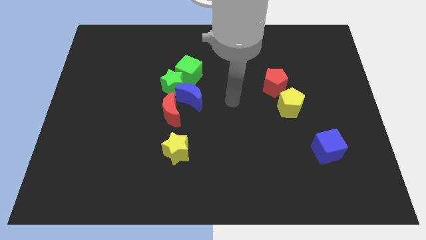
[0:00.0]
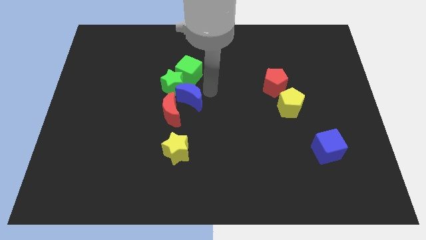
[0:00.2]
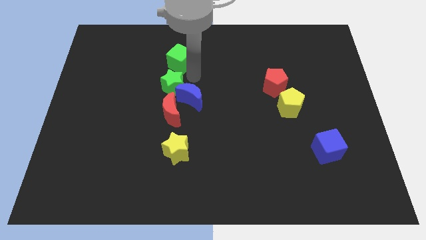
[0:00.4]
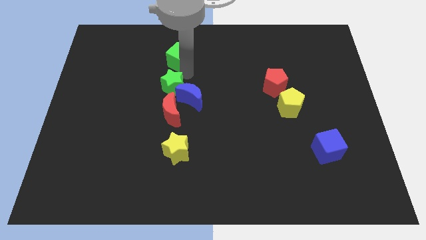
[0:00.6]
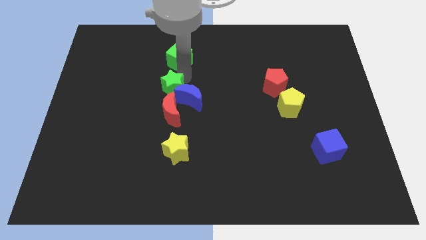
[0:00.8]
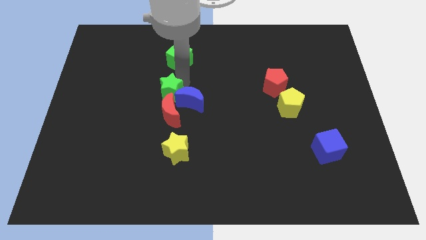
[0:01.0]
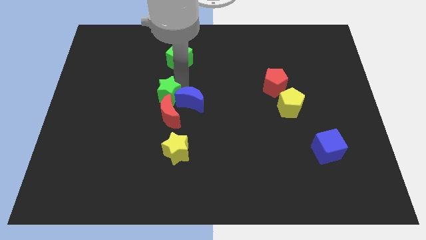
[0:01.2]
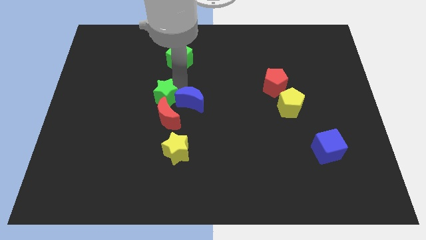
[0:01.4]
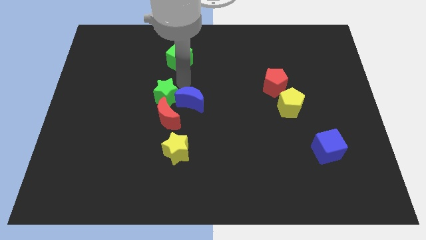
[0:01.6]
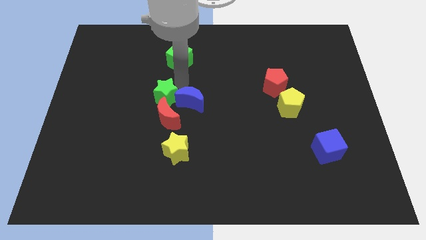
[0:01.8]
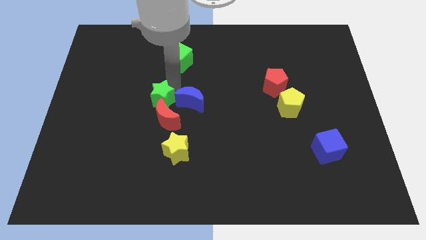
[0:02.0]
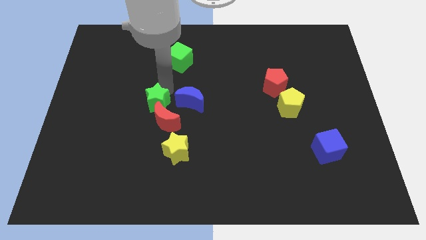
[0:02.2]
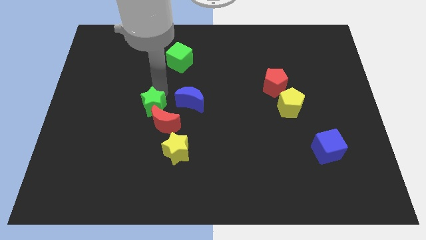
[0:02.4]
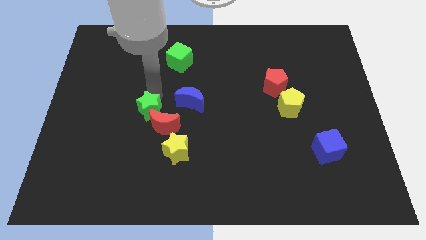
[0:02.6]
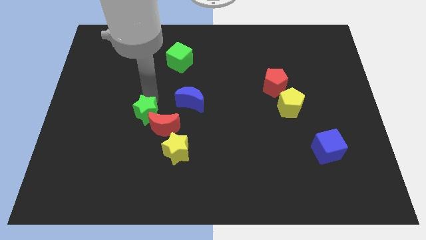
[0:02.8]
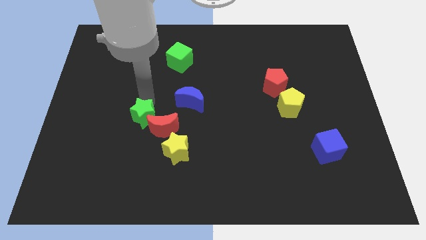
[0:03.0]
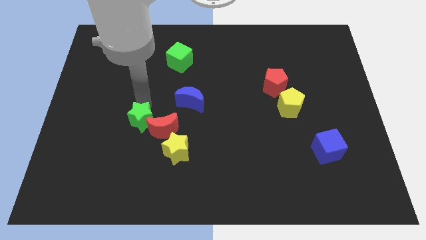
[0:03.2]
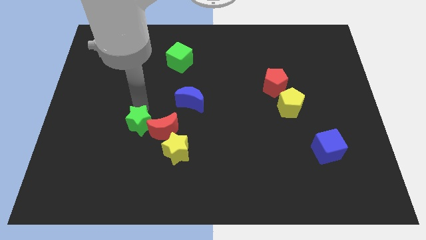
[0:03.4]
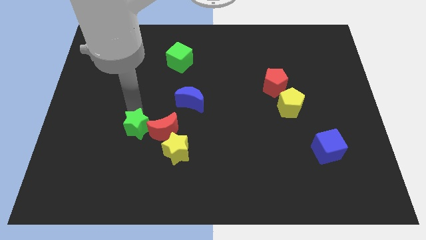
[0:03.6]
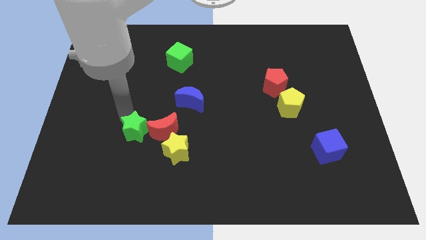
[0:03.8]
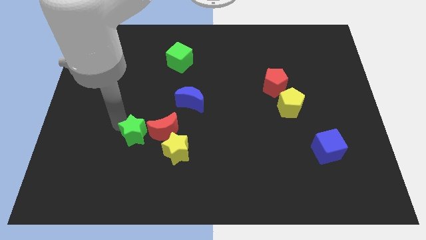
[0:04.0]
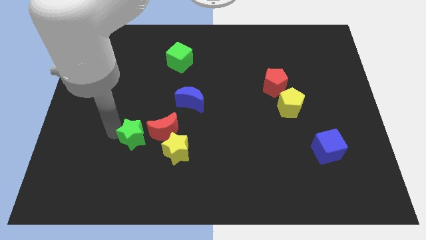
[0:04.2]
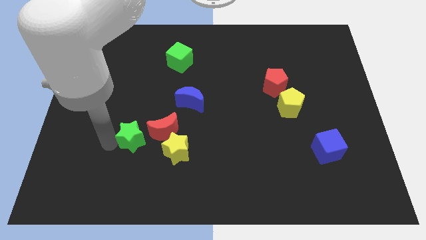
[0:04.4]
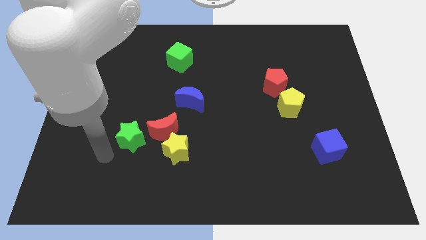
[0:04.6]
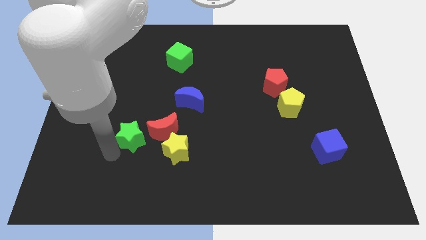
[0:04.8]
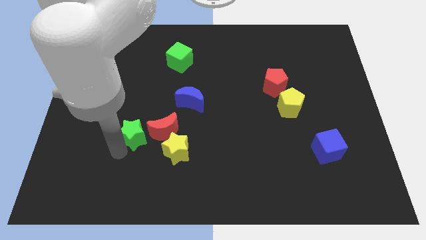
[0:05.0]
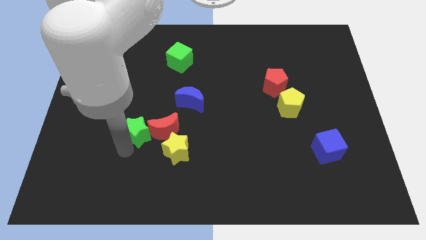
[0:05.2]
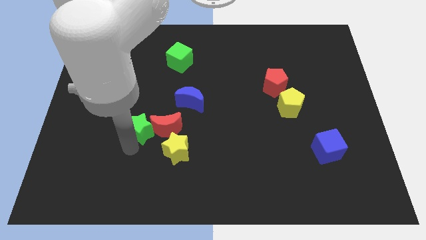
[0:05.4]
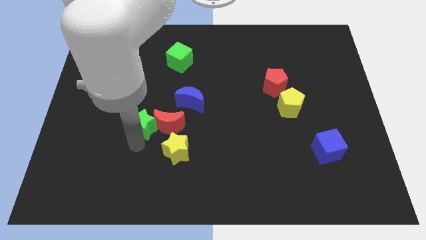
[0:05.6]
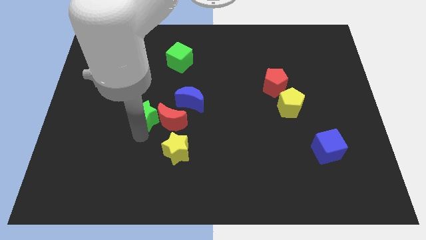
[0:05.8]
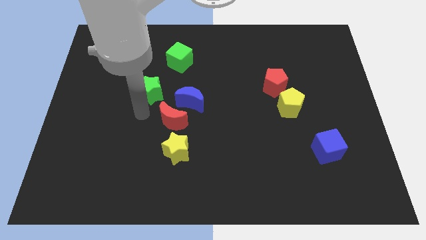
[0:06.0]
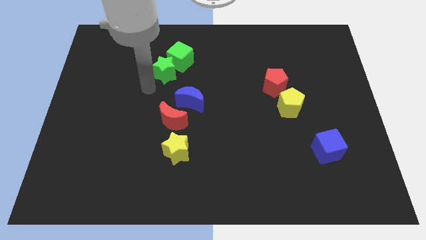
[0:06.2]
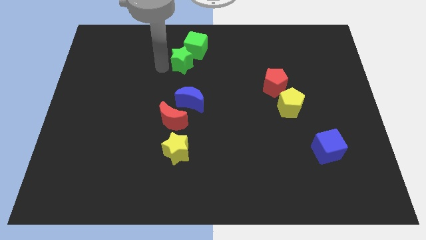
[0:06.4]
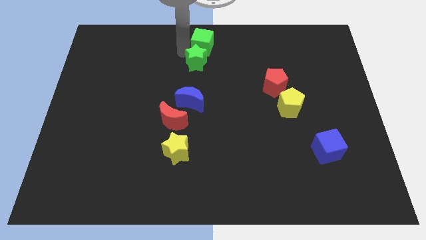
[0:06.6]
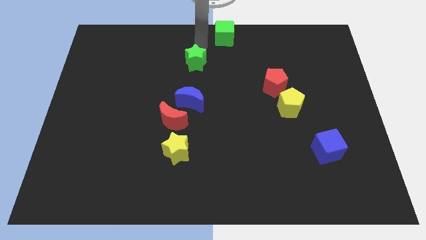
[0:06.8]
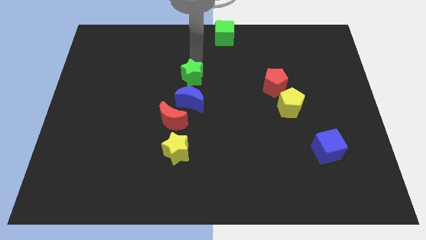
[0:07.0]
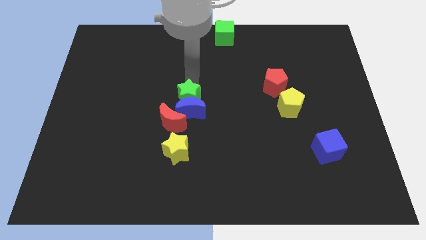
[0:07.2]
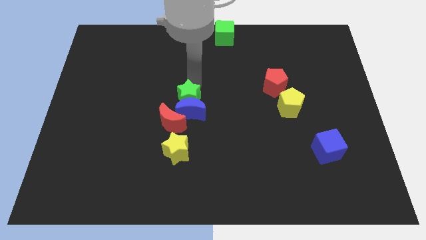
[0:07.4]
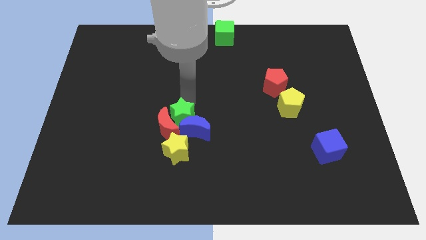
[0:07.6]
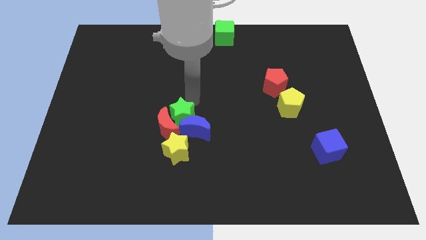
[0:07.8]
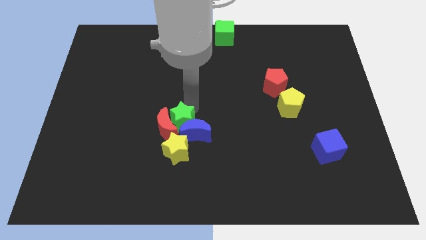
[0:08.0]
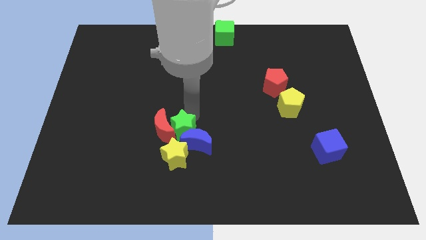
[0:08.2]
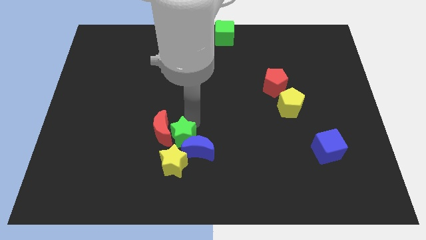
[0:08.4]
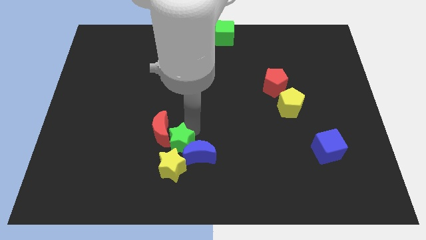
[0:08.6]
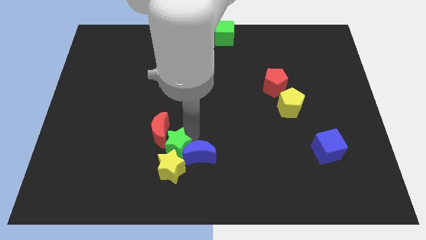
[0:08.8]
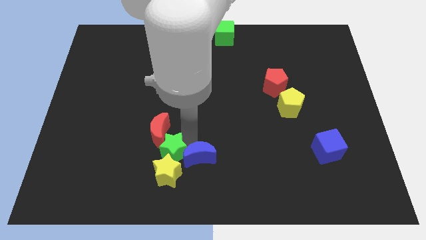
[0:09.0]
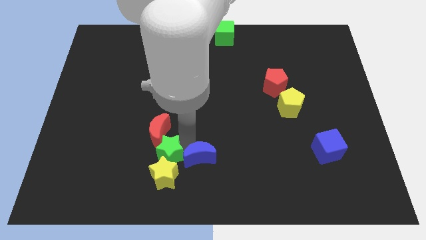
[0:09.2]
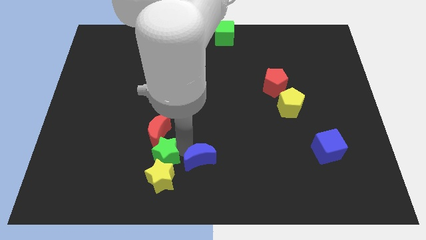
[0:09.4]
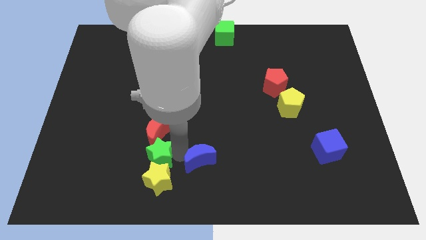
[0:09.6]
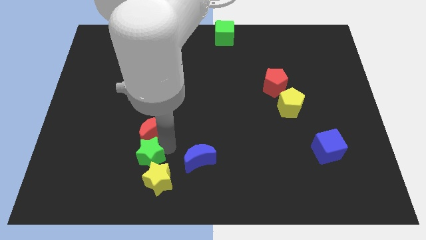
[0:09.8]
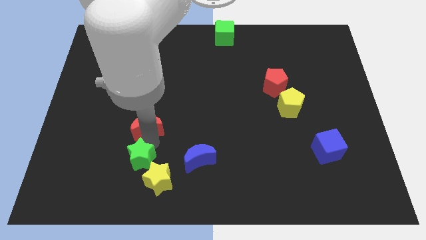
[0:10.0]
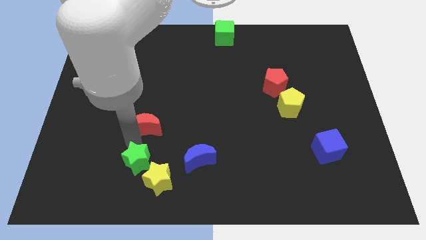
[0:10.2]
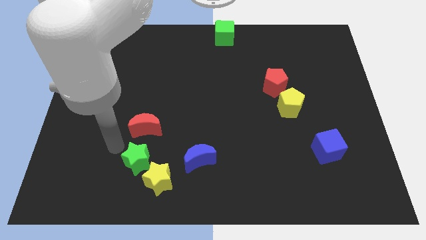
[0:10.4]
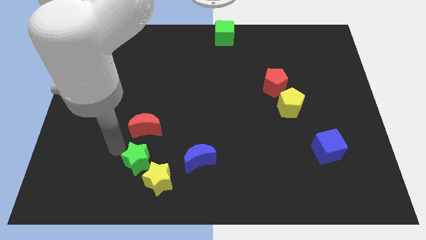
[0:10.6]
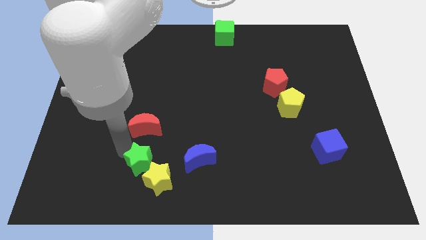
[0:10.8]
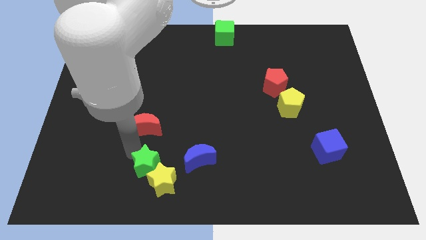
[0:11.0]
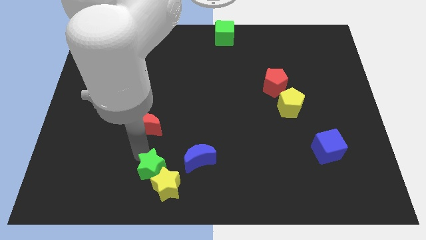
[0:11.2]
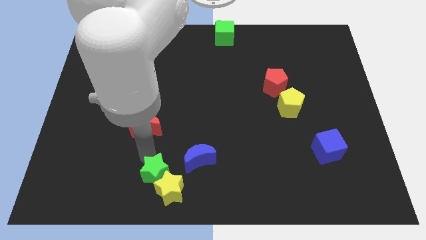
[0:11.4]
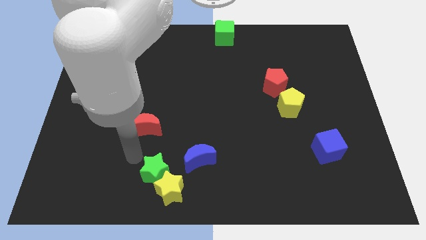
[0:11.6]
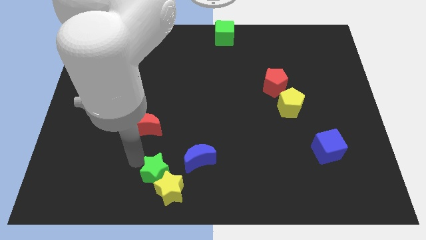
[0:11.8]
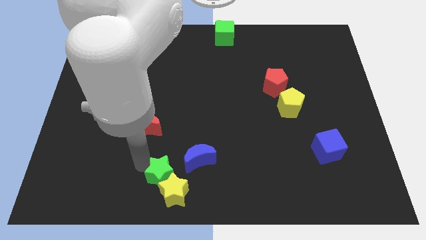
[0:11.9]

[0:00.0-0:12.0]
put the green star to the bottom
